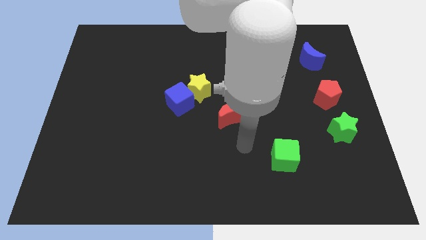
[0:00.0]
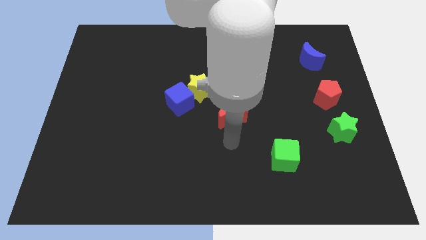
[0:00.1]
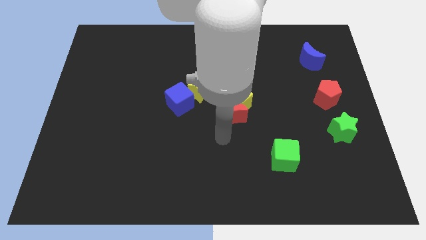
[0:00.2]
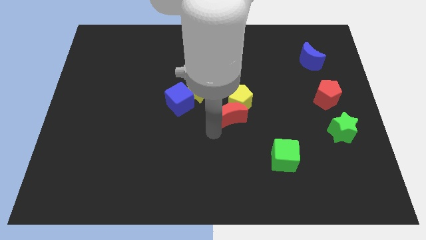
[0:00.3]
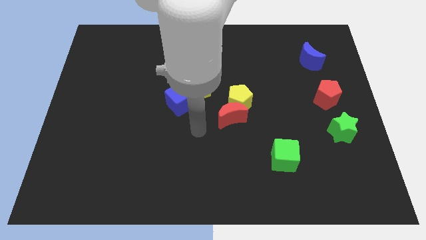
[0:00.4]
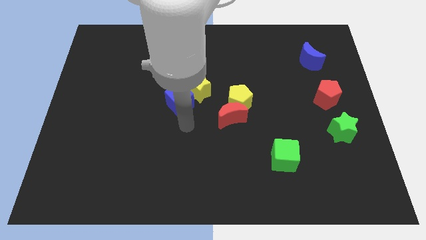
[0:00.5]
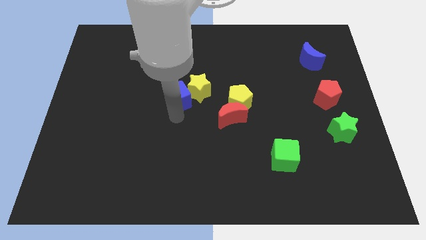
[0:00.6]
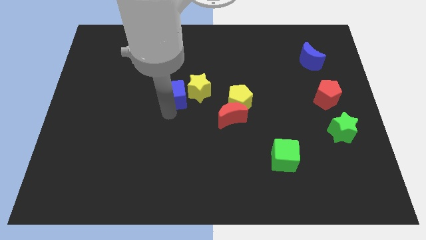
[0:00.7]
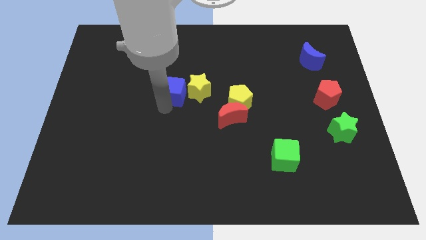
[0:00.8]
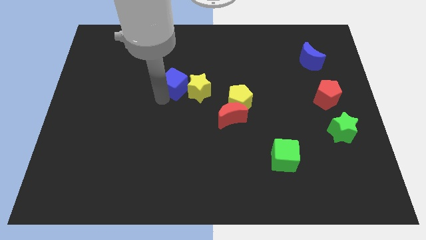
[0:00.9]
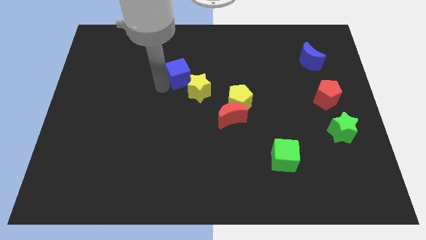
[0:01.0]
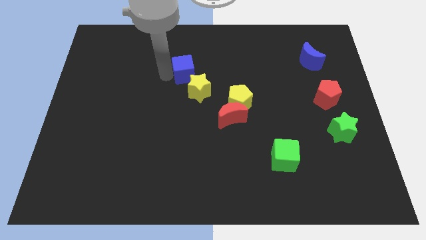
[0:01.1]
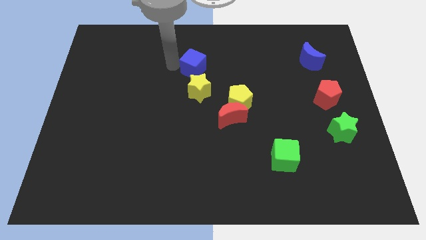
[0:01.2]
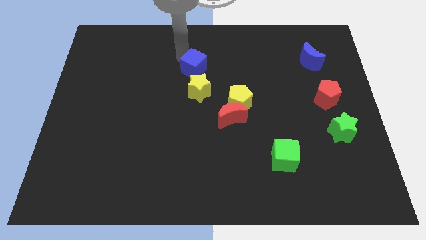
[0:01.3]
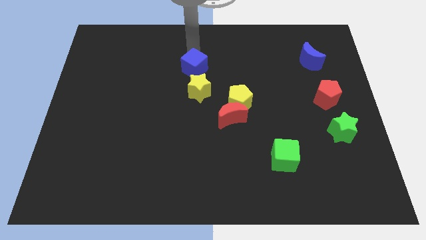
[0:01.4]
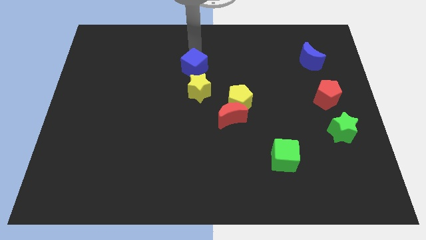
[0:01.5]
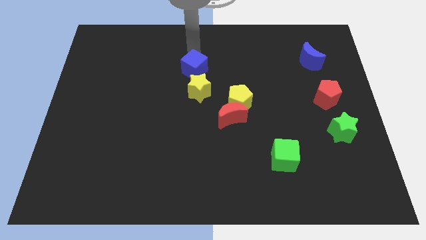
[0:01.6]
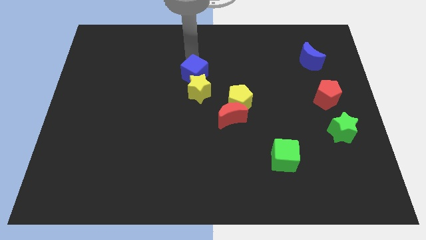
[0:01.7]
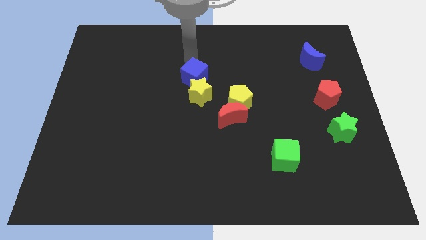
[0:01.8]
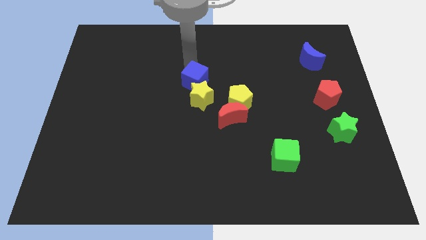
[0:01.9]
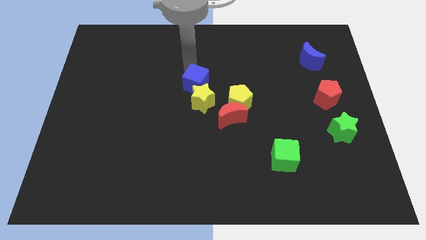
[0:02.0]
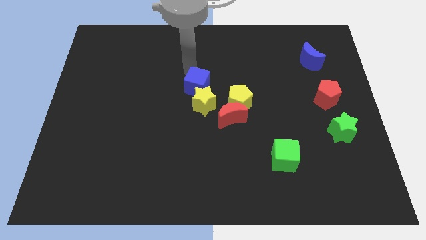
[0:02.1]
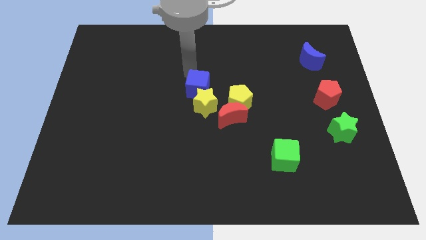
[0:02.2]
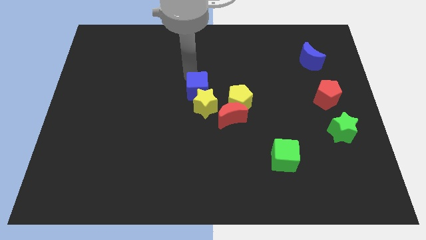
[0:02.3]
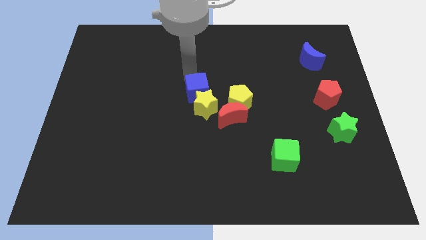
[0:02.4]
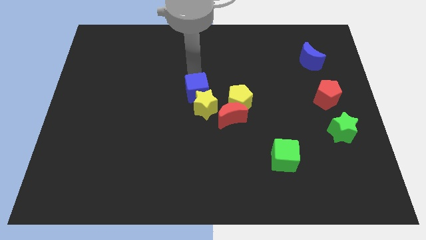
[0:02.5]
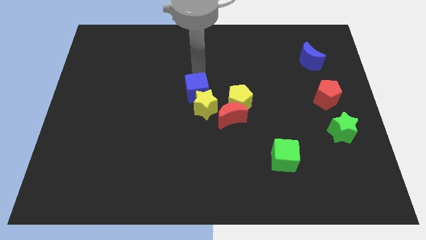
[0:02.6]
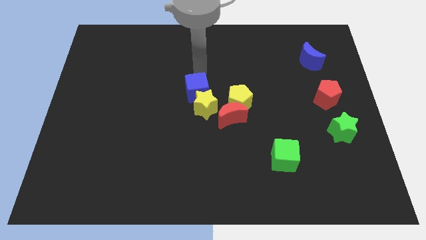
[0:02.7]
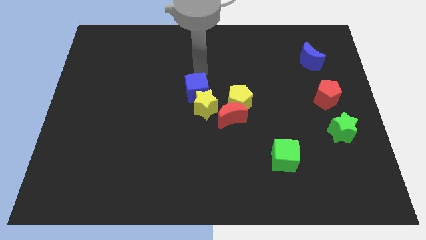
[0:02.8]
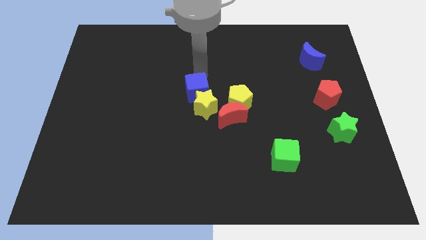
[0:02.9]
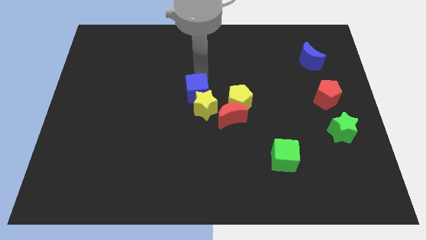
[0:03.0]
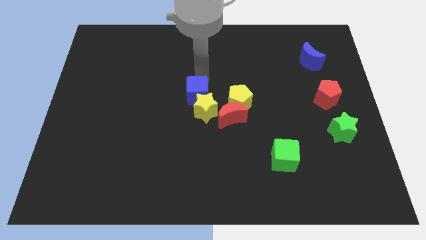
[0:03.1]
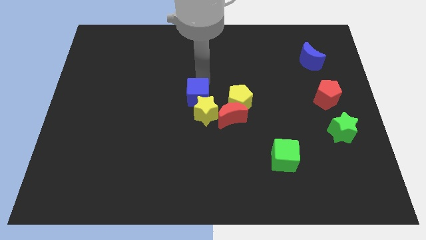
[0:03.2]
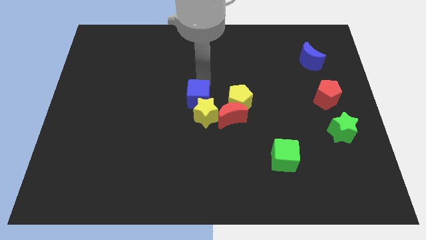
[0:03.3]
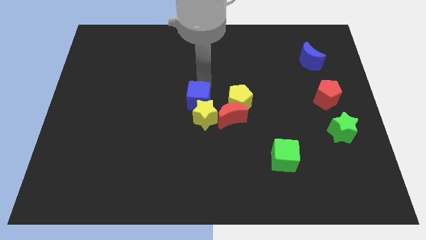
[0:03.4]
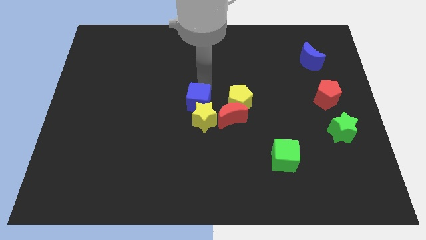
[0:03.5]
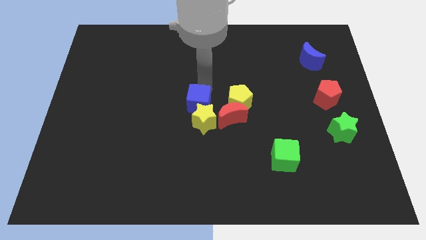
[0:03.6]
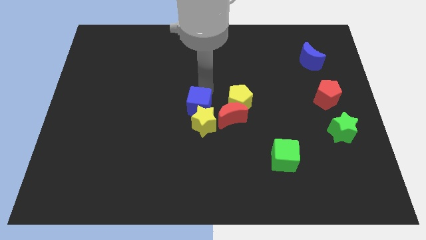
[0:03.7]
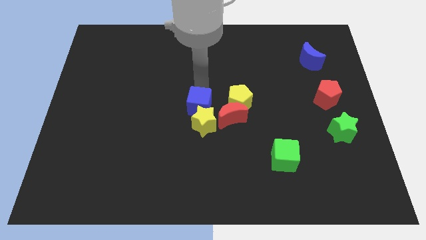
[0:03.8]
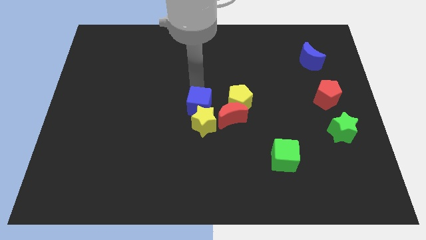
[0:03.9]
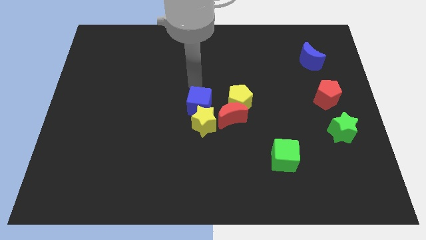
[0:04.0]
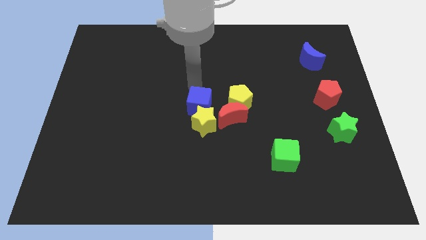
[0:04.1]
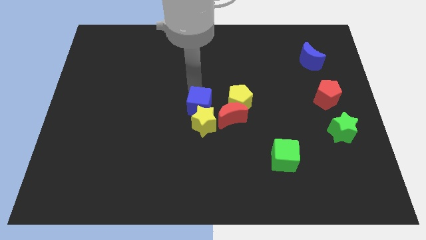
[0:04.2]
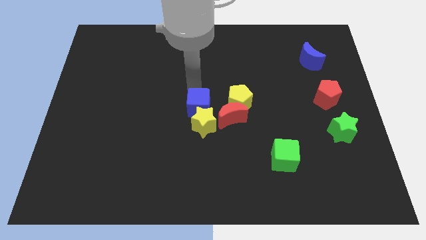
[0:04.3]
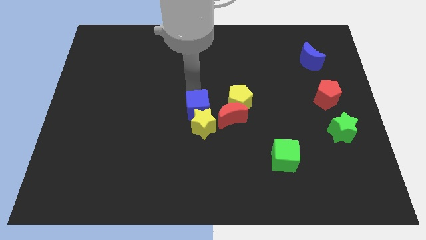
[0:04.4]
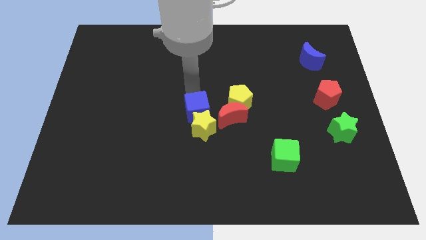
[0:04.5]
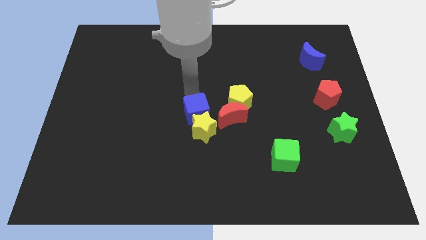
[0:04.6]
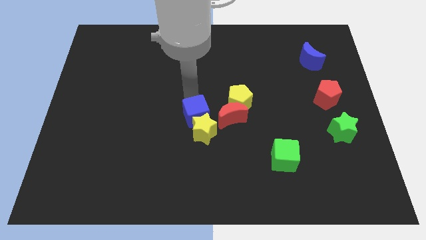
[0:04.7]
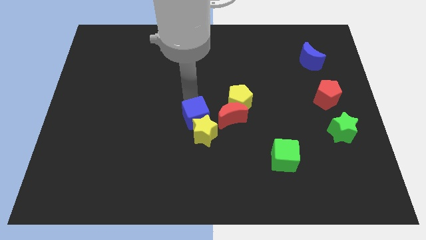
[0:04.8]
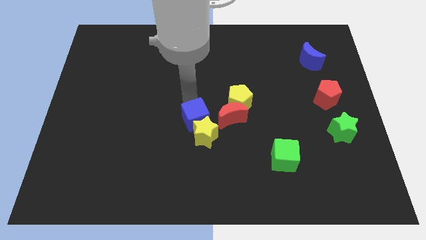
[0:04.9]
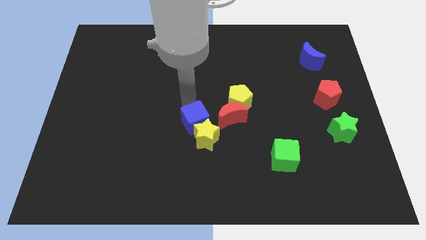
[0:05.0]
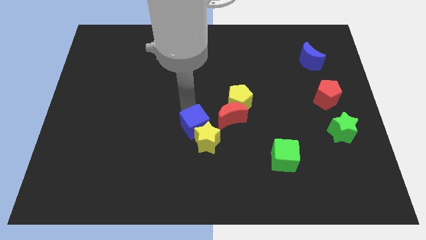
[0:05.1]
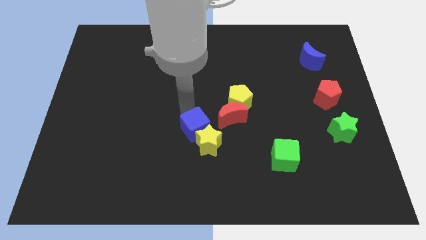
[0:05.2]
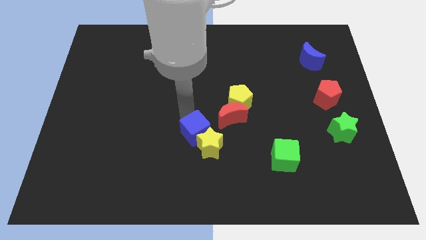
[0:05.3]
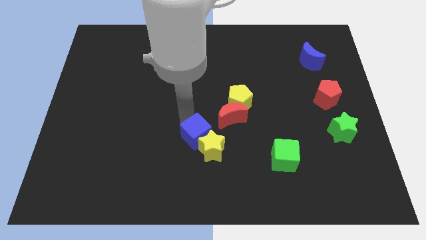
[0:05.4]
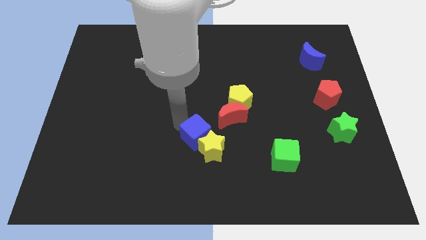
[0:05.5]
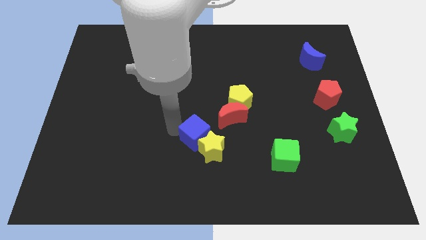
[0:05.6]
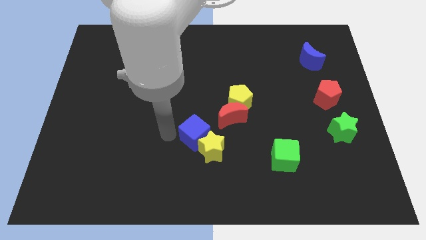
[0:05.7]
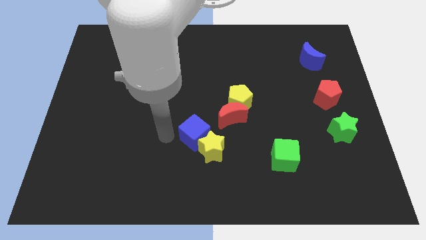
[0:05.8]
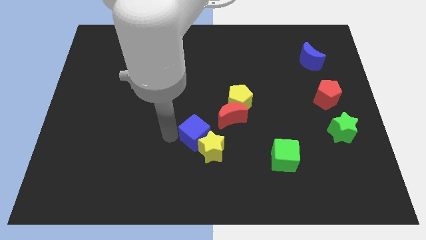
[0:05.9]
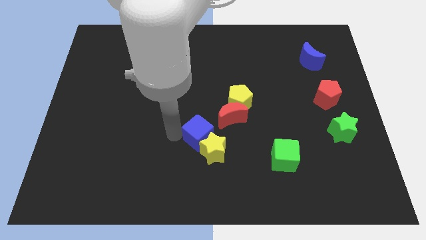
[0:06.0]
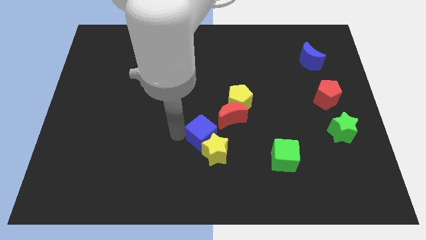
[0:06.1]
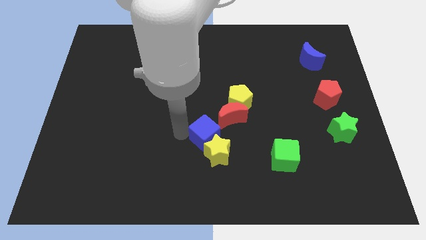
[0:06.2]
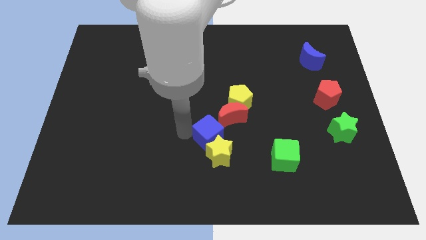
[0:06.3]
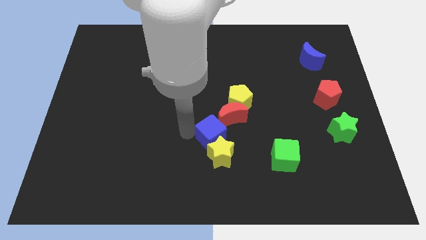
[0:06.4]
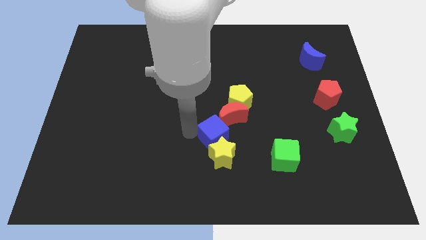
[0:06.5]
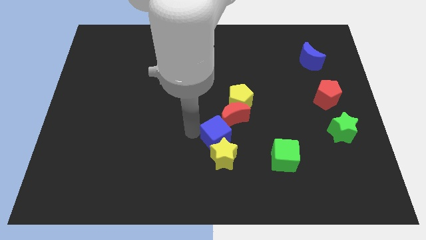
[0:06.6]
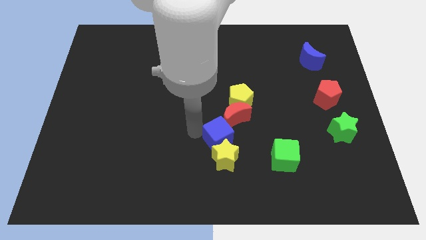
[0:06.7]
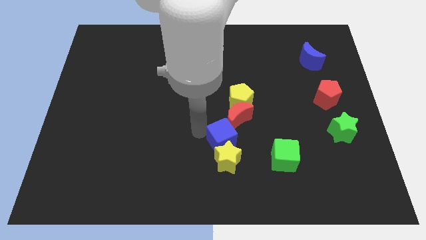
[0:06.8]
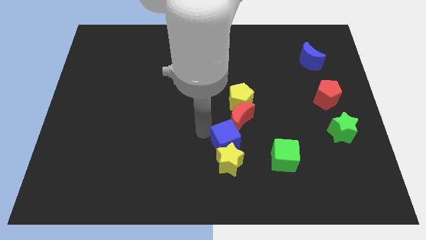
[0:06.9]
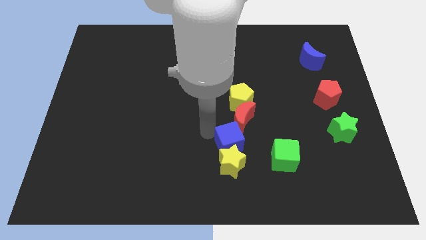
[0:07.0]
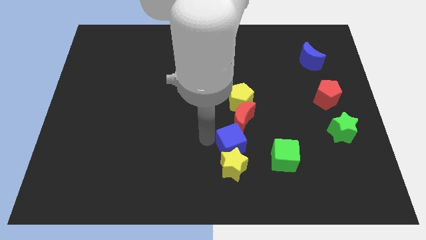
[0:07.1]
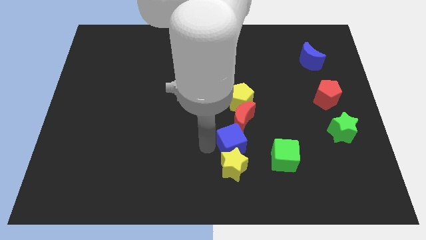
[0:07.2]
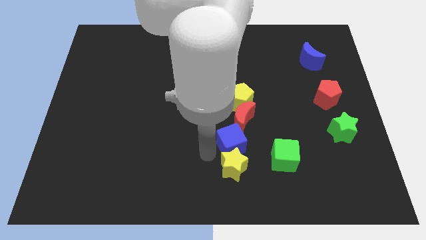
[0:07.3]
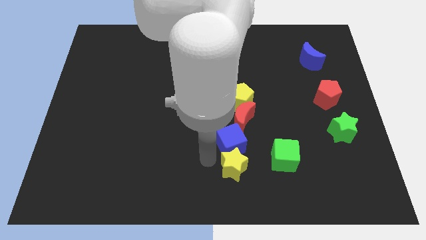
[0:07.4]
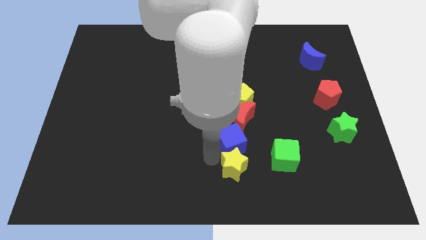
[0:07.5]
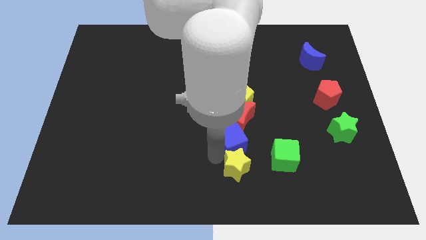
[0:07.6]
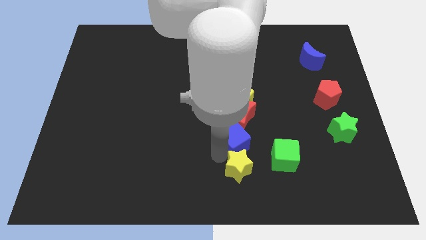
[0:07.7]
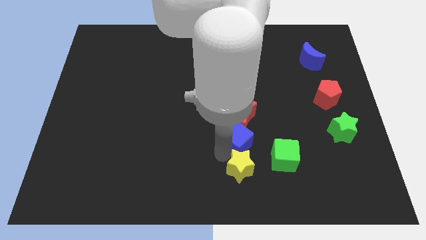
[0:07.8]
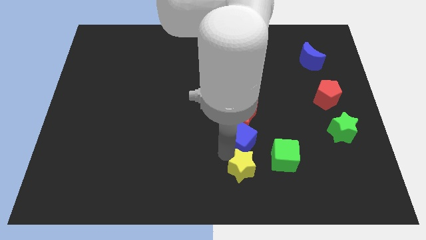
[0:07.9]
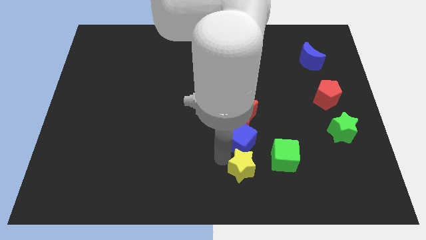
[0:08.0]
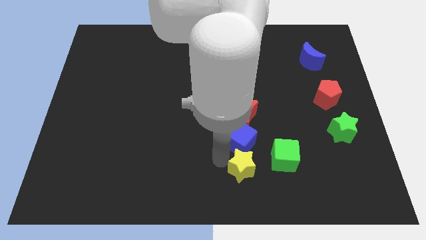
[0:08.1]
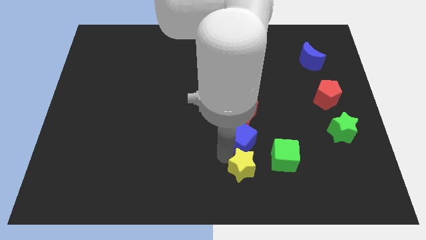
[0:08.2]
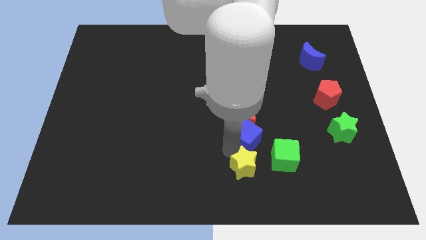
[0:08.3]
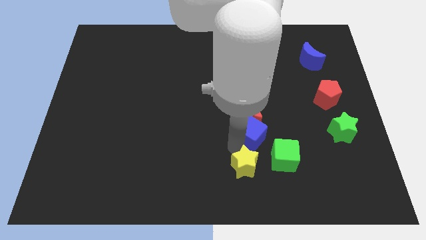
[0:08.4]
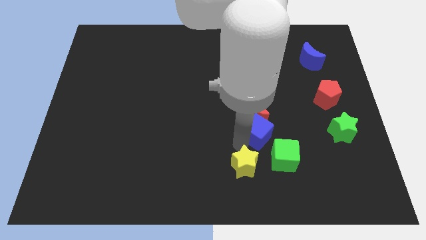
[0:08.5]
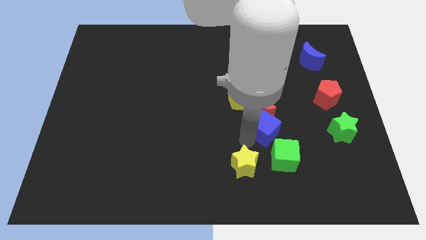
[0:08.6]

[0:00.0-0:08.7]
push the blue cube above the green cube
